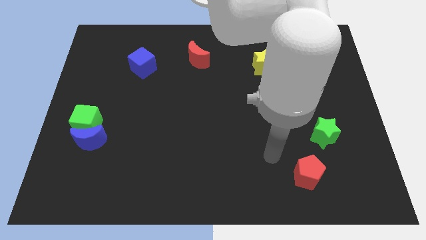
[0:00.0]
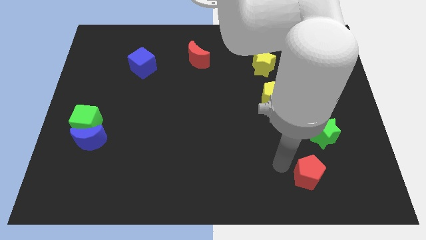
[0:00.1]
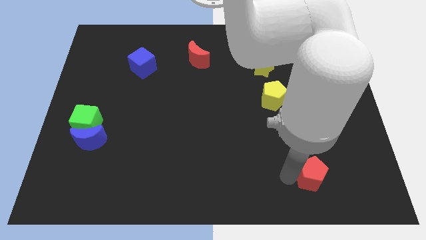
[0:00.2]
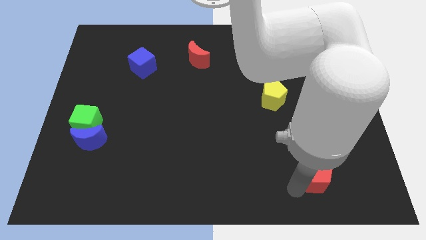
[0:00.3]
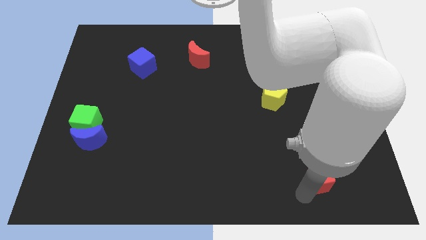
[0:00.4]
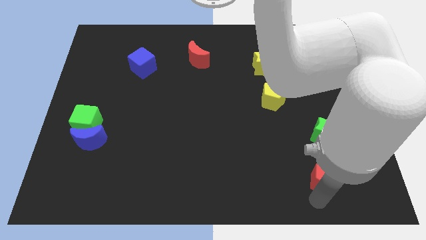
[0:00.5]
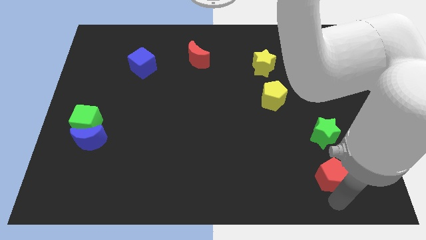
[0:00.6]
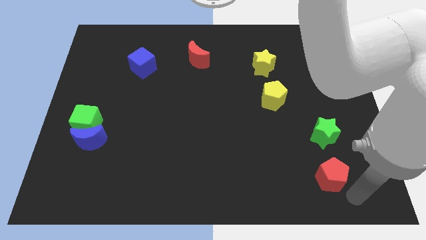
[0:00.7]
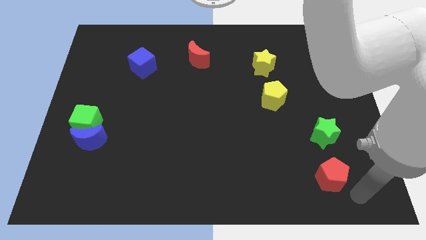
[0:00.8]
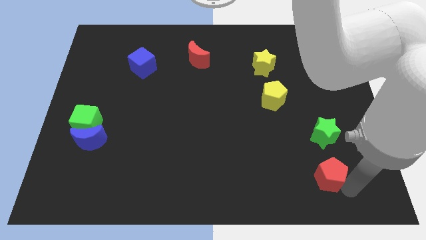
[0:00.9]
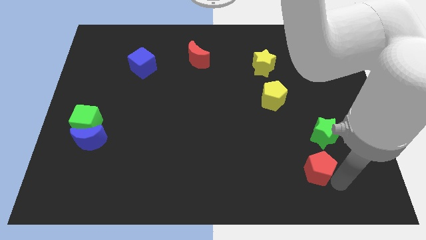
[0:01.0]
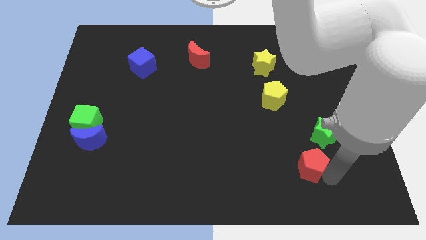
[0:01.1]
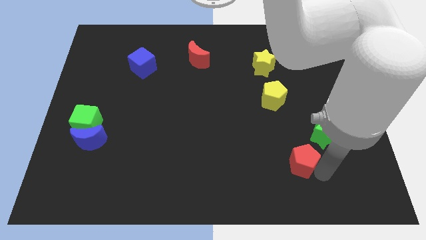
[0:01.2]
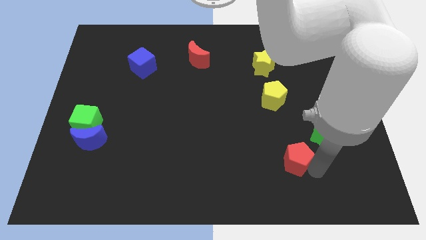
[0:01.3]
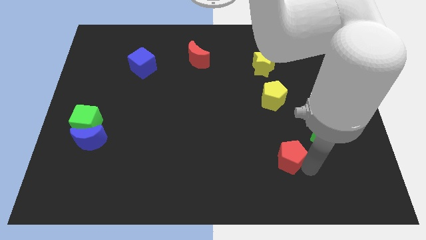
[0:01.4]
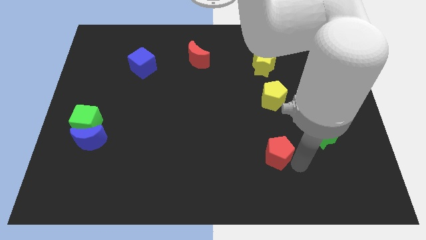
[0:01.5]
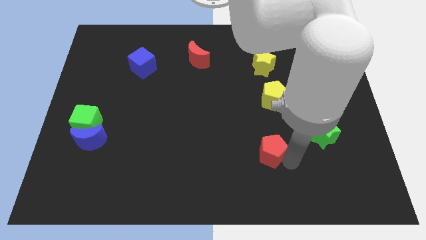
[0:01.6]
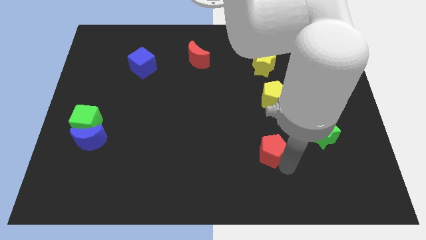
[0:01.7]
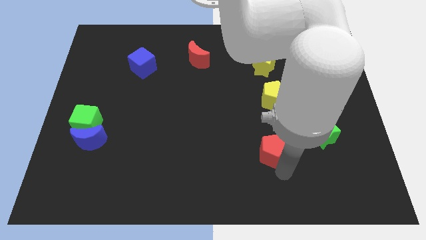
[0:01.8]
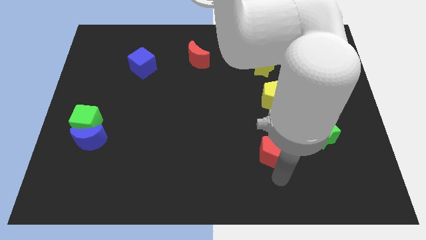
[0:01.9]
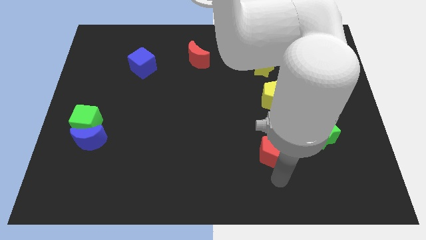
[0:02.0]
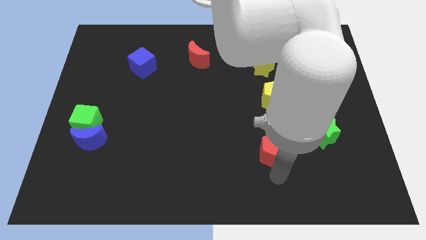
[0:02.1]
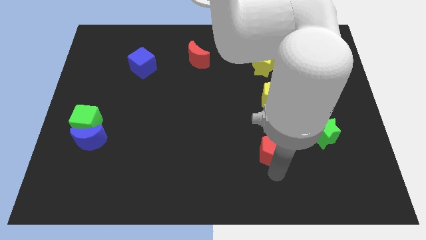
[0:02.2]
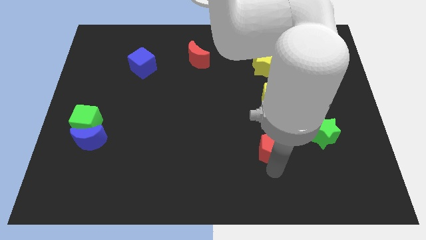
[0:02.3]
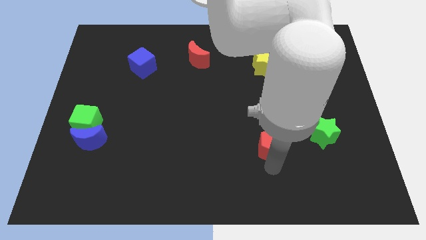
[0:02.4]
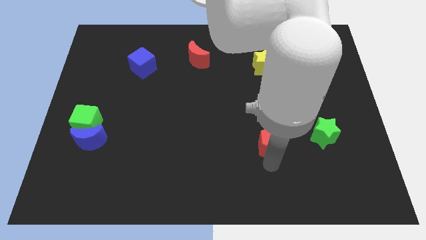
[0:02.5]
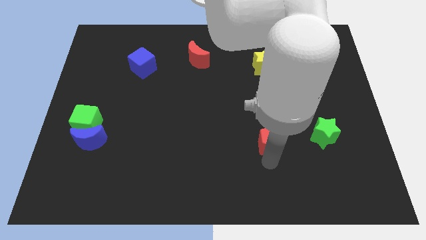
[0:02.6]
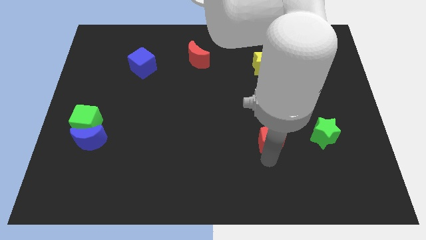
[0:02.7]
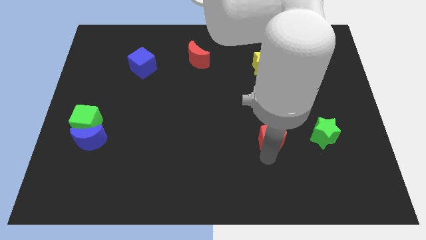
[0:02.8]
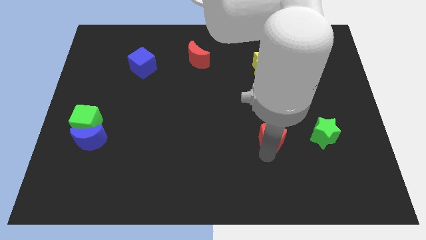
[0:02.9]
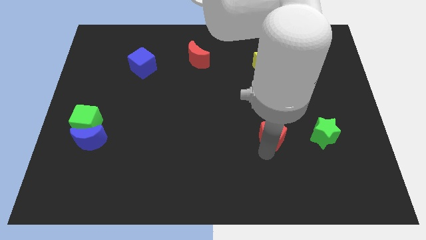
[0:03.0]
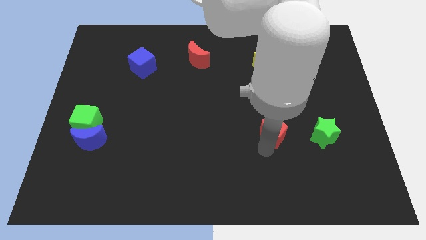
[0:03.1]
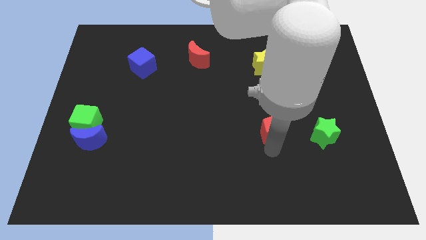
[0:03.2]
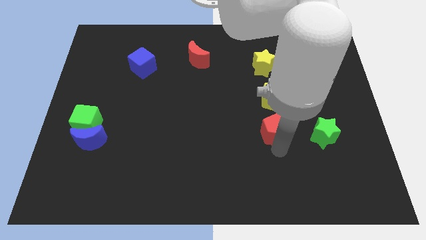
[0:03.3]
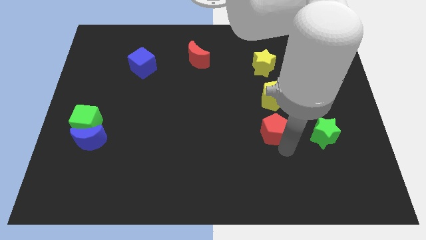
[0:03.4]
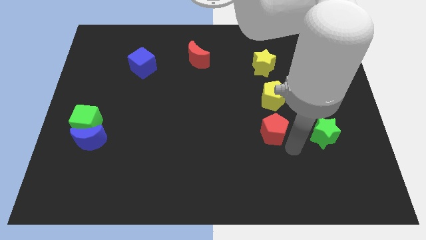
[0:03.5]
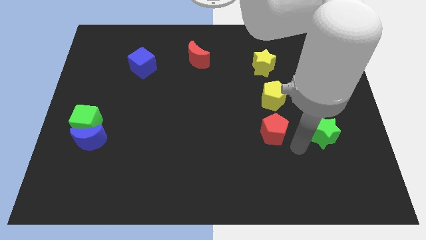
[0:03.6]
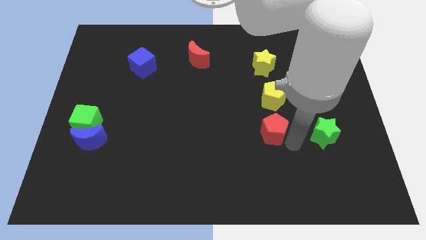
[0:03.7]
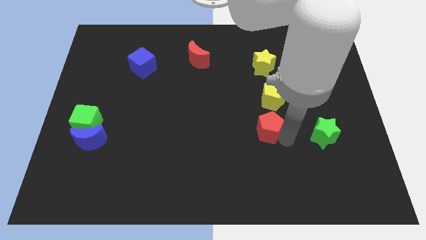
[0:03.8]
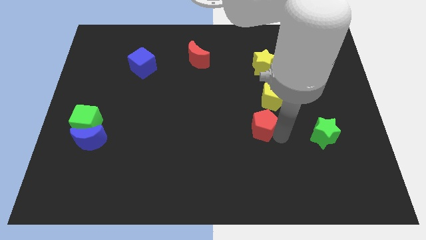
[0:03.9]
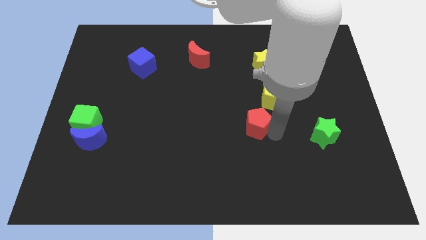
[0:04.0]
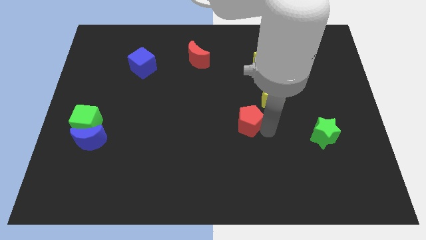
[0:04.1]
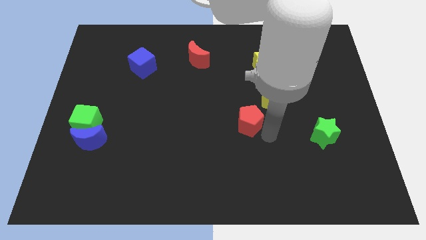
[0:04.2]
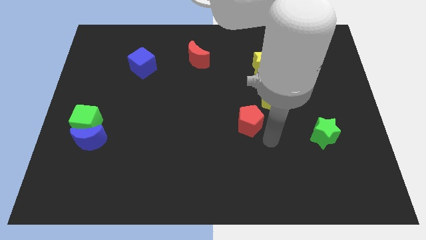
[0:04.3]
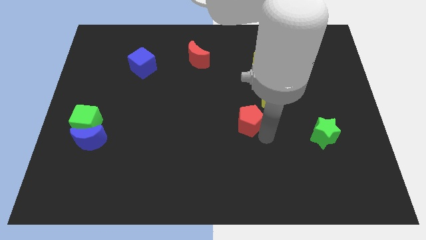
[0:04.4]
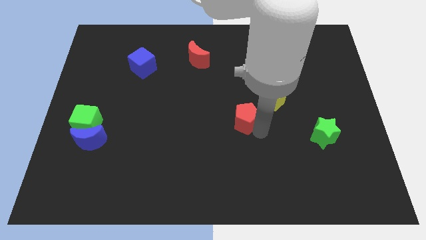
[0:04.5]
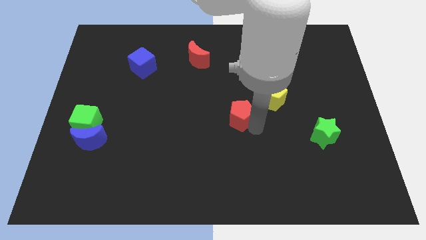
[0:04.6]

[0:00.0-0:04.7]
move the red pentagon diagonally upwards and left

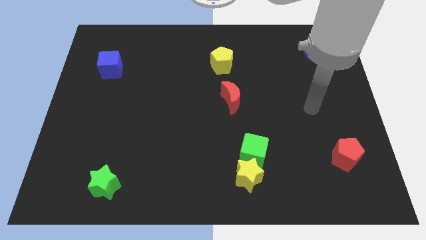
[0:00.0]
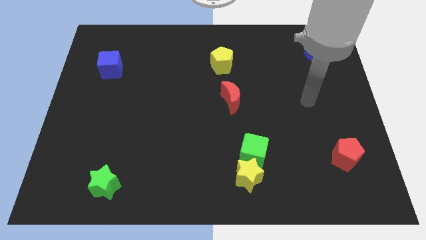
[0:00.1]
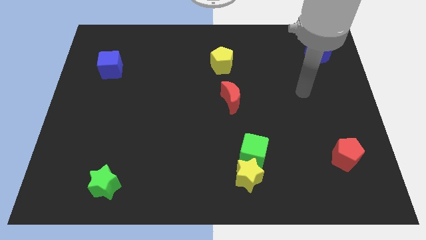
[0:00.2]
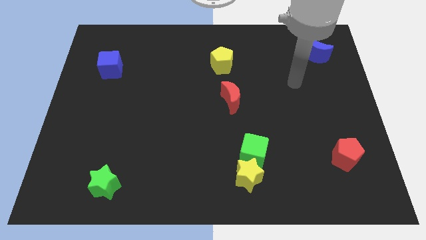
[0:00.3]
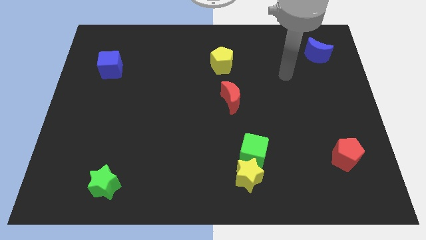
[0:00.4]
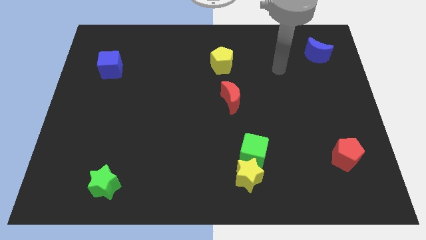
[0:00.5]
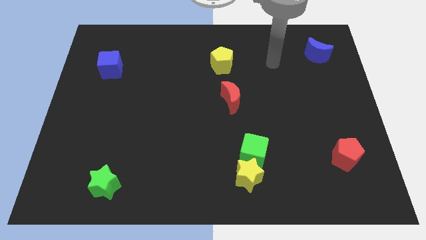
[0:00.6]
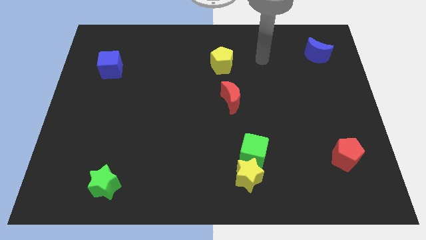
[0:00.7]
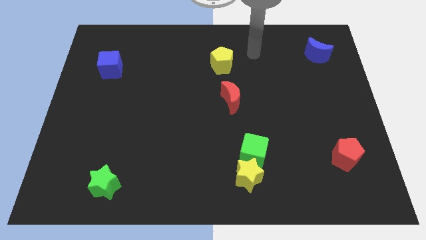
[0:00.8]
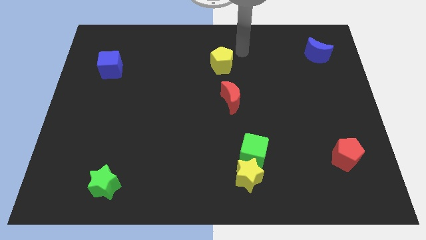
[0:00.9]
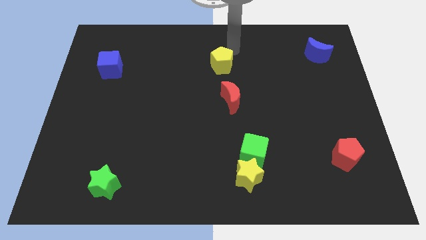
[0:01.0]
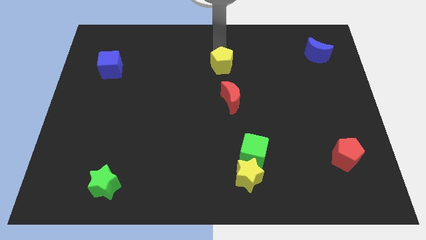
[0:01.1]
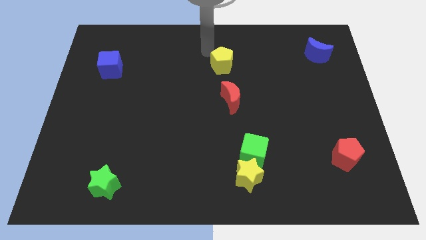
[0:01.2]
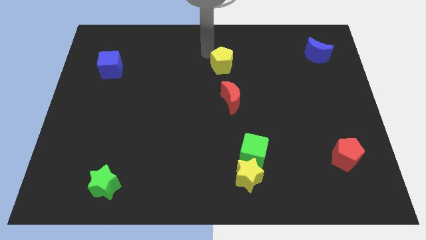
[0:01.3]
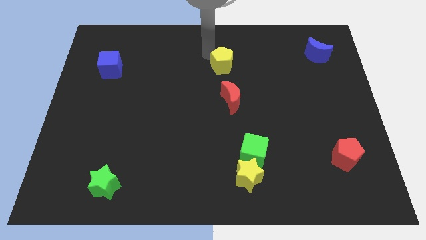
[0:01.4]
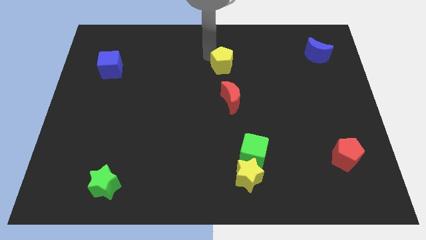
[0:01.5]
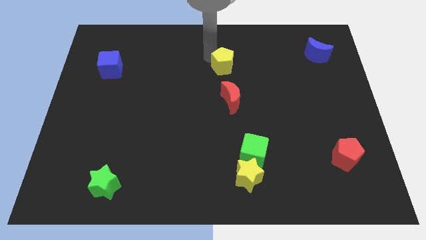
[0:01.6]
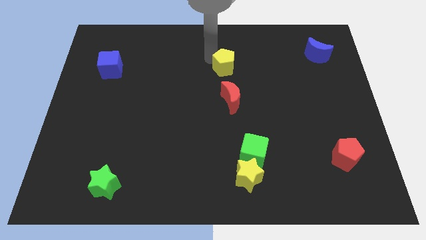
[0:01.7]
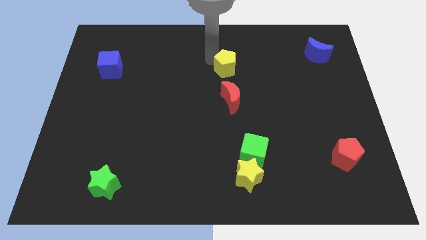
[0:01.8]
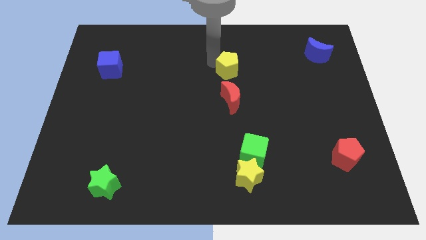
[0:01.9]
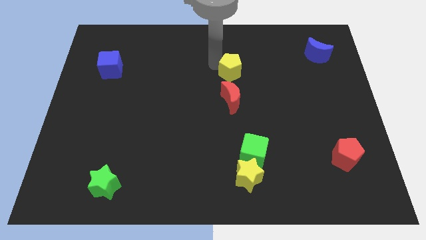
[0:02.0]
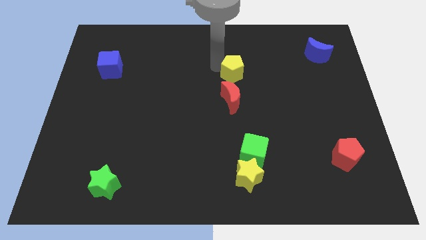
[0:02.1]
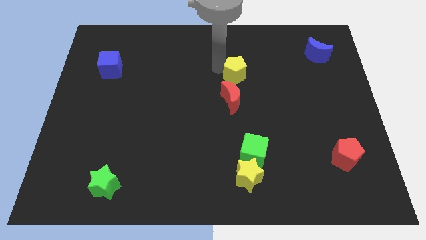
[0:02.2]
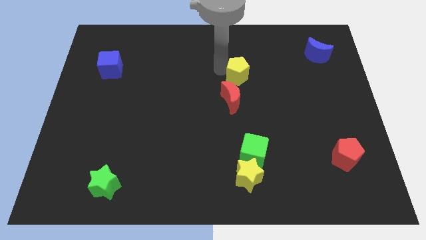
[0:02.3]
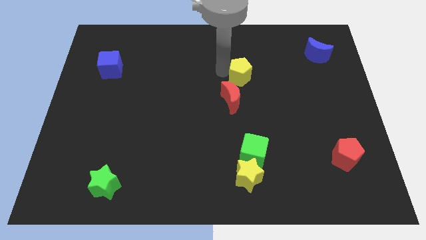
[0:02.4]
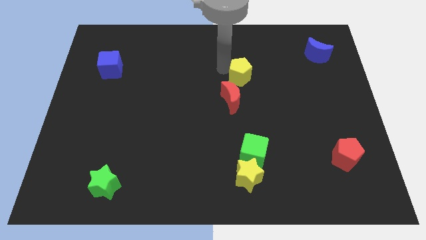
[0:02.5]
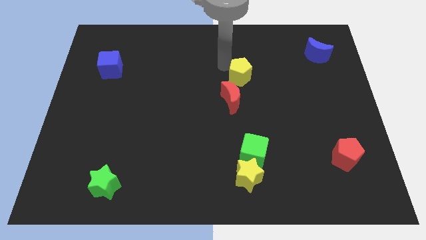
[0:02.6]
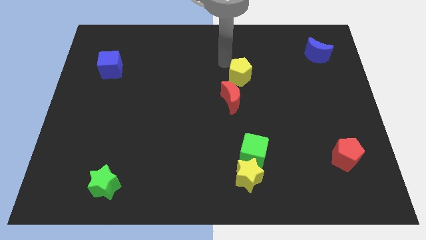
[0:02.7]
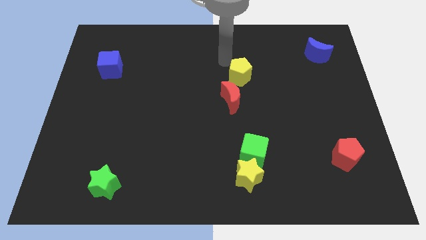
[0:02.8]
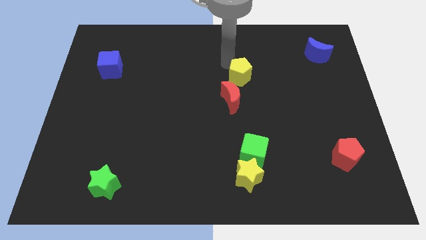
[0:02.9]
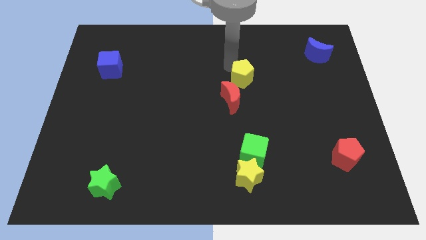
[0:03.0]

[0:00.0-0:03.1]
slightly push the yellow pentagon diagonally downwards and right

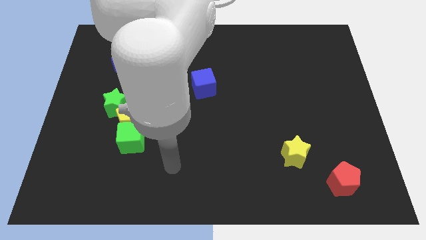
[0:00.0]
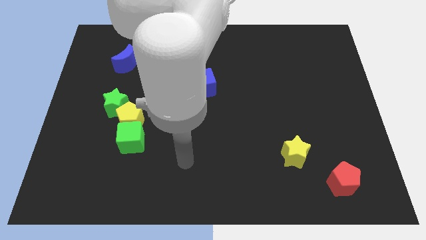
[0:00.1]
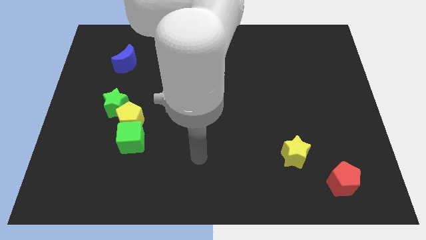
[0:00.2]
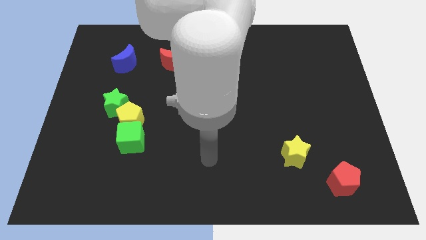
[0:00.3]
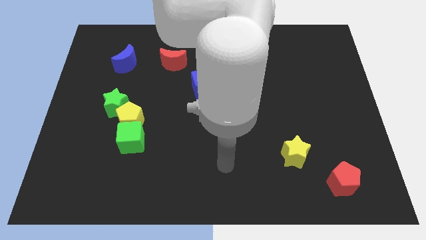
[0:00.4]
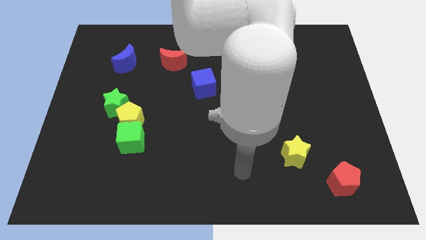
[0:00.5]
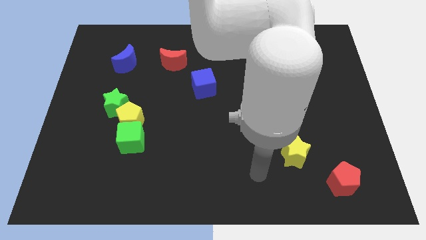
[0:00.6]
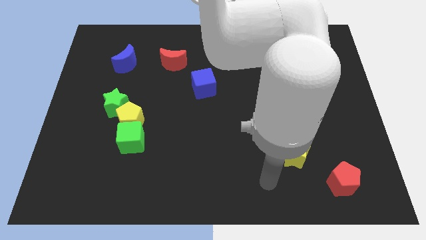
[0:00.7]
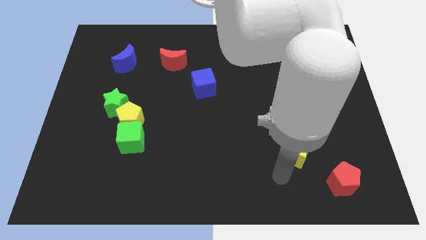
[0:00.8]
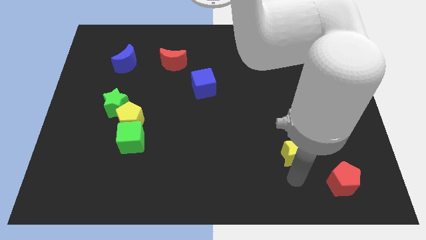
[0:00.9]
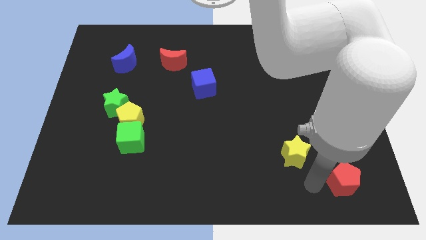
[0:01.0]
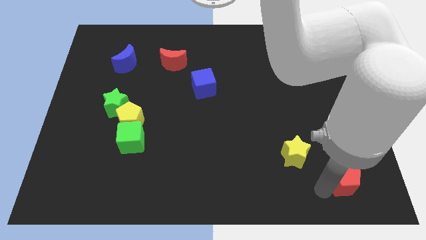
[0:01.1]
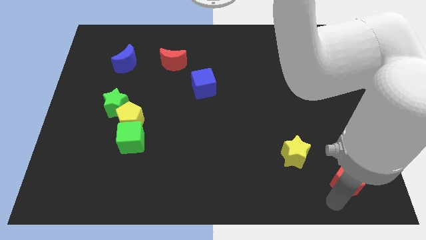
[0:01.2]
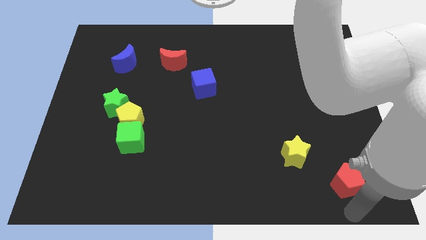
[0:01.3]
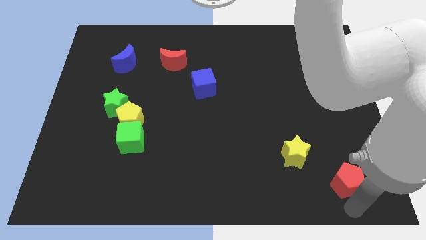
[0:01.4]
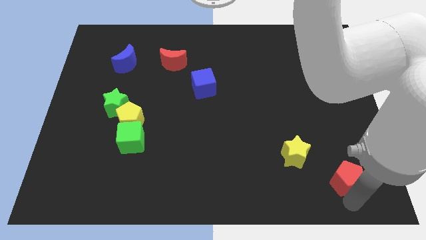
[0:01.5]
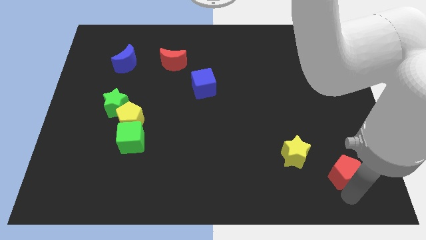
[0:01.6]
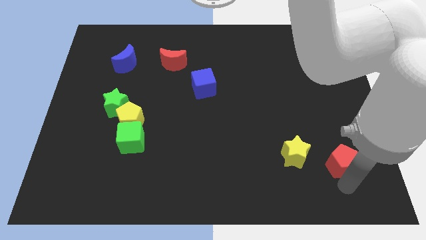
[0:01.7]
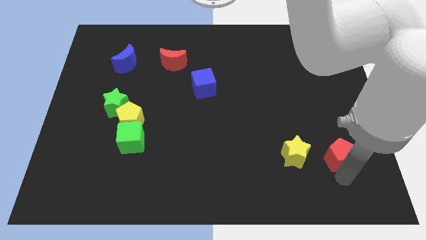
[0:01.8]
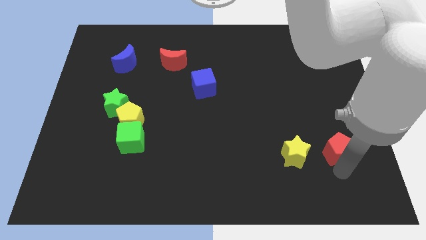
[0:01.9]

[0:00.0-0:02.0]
move the red pentagon a little upwards
